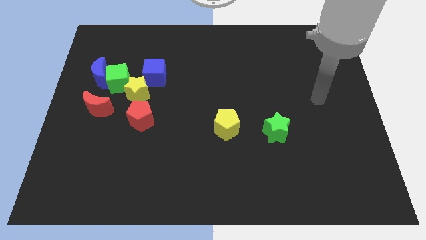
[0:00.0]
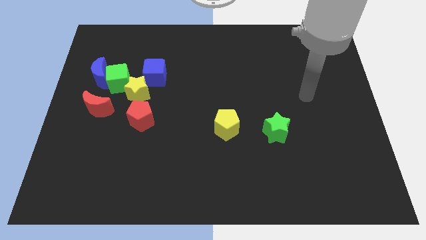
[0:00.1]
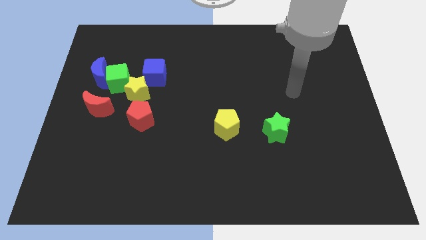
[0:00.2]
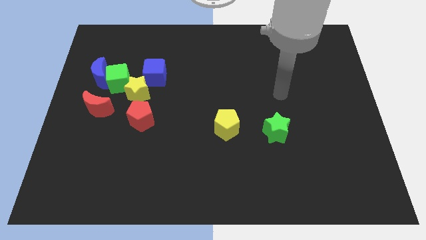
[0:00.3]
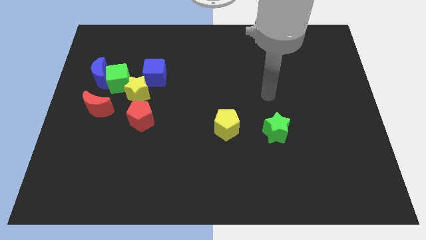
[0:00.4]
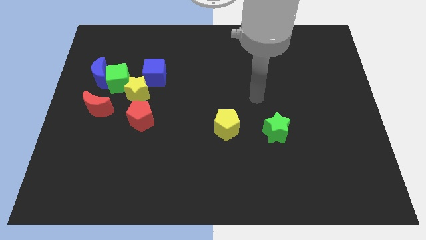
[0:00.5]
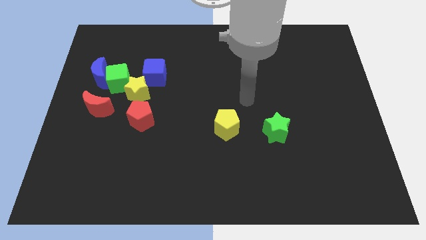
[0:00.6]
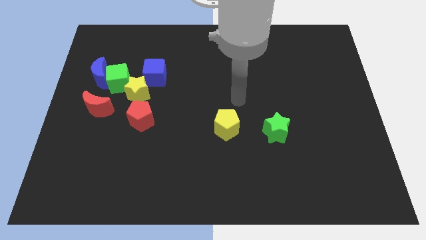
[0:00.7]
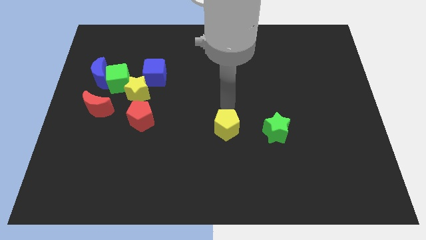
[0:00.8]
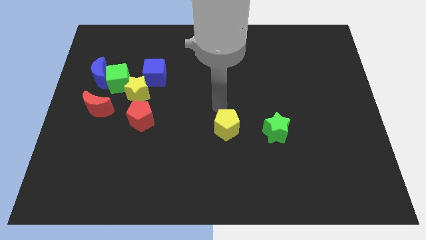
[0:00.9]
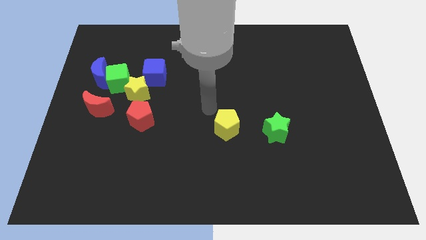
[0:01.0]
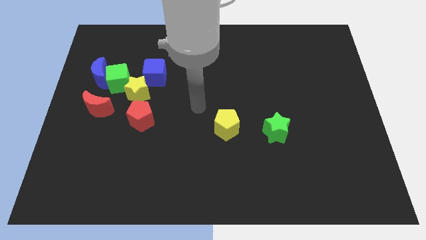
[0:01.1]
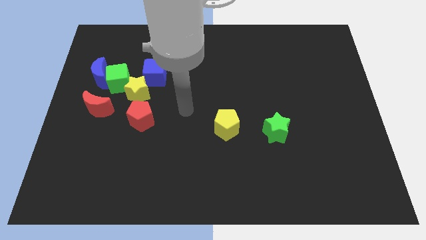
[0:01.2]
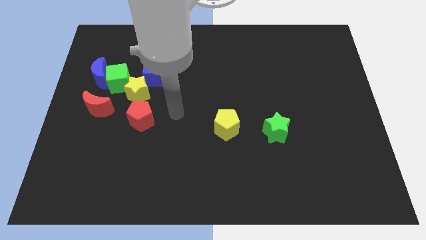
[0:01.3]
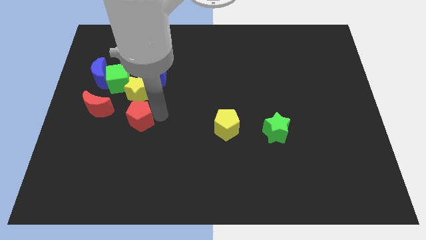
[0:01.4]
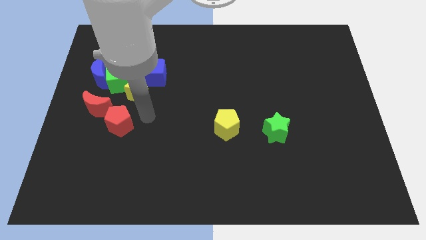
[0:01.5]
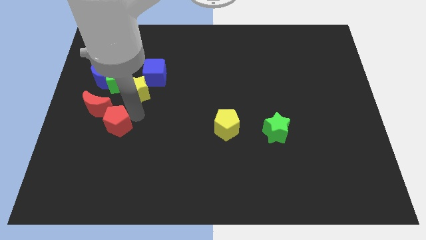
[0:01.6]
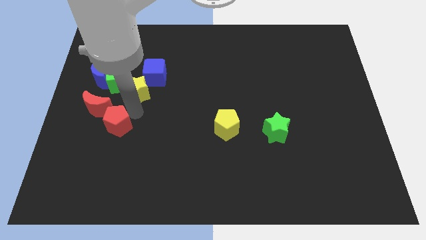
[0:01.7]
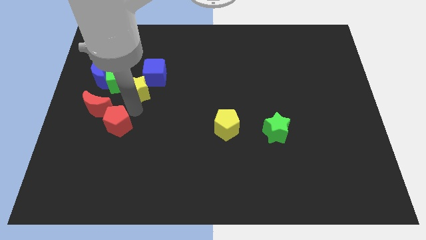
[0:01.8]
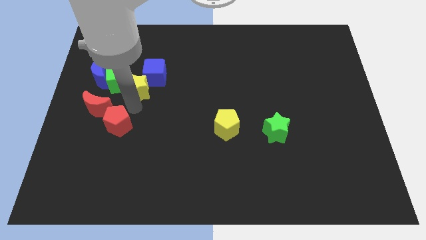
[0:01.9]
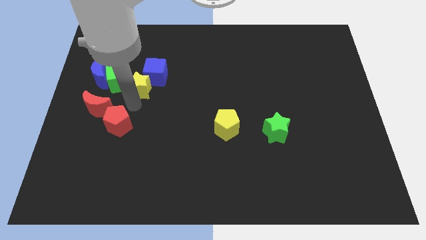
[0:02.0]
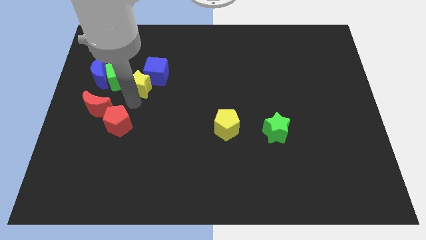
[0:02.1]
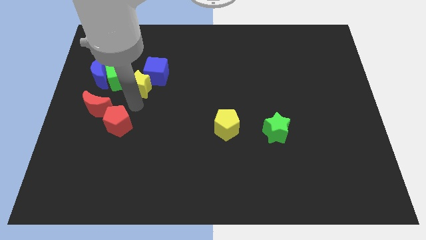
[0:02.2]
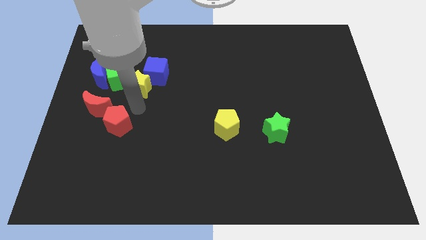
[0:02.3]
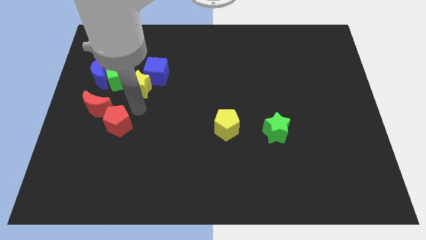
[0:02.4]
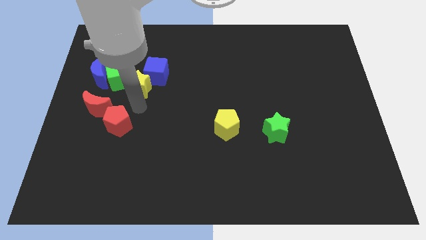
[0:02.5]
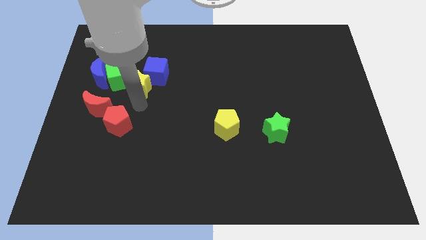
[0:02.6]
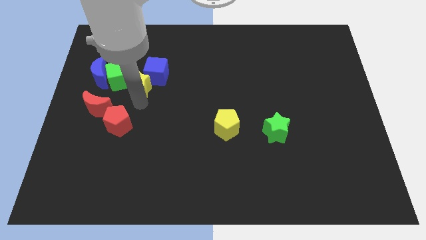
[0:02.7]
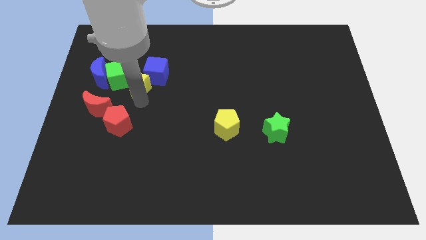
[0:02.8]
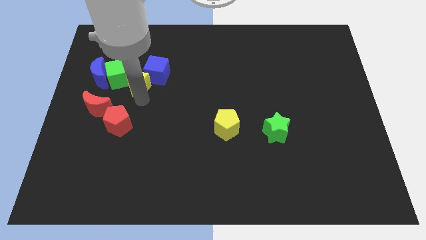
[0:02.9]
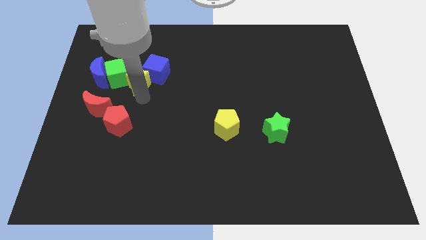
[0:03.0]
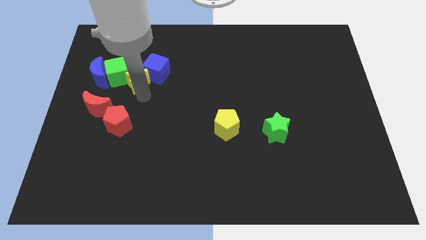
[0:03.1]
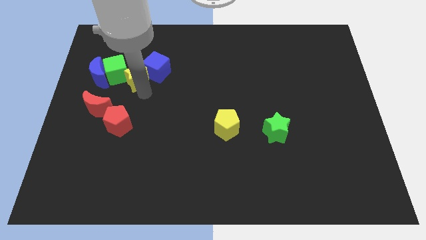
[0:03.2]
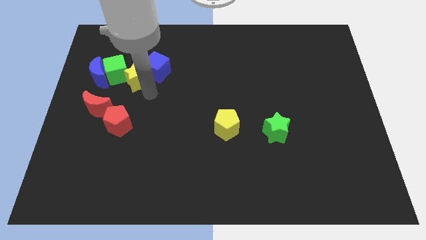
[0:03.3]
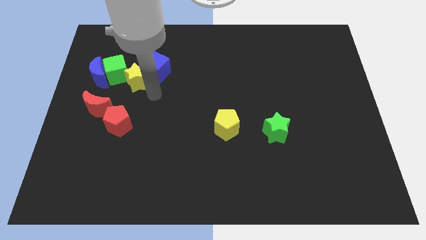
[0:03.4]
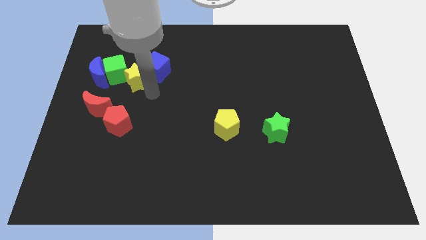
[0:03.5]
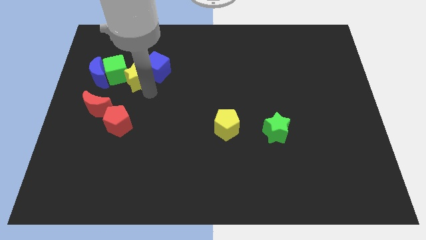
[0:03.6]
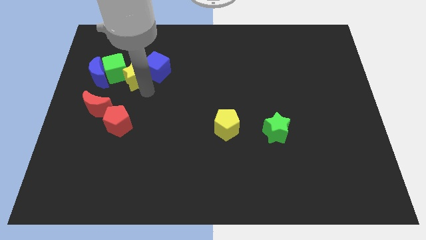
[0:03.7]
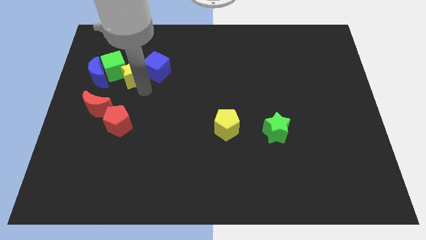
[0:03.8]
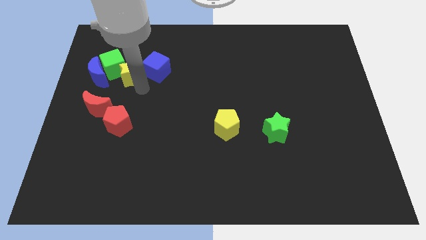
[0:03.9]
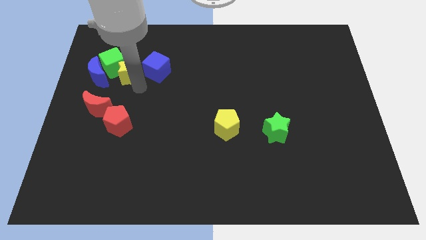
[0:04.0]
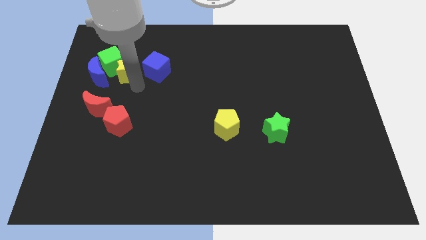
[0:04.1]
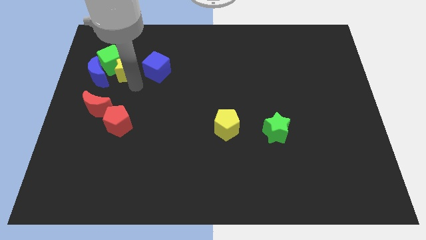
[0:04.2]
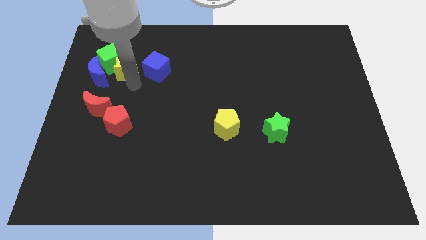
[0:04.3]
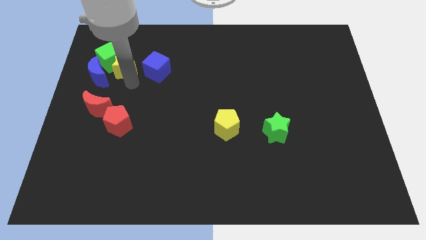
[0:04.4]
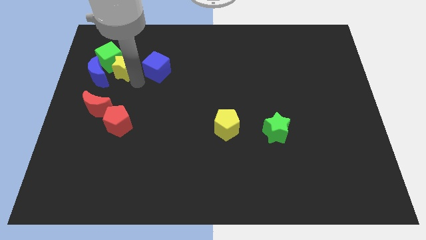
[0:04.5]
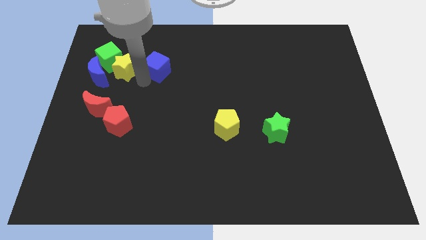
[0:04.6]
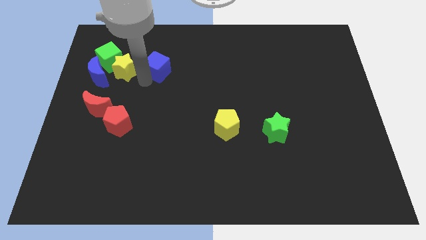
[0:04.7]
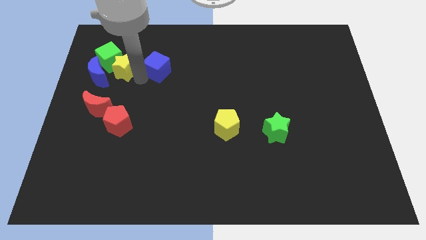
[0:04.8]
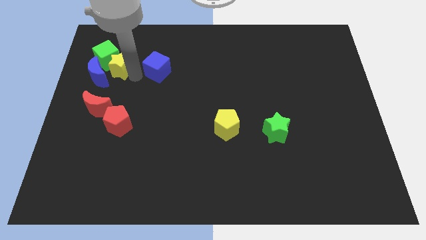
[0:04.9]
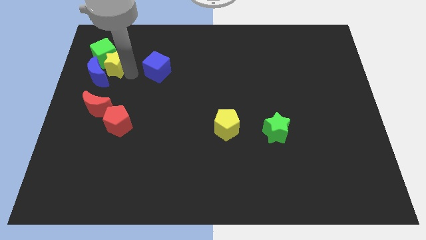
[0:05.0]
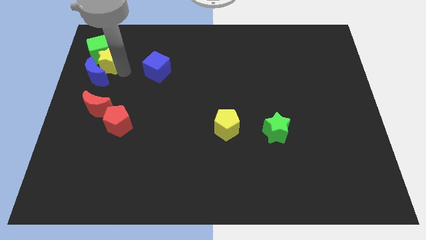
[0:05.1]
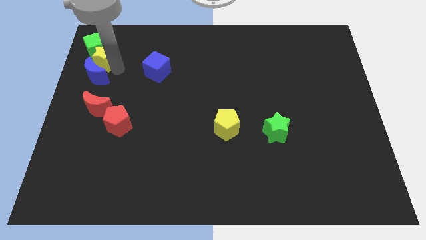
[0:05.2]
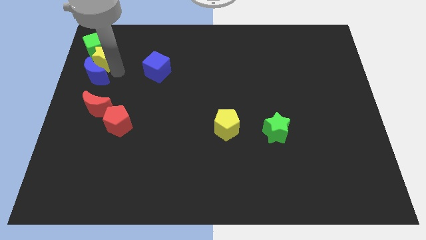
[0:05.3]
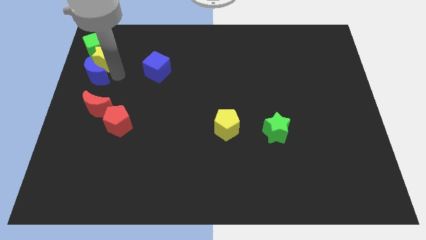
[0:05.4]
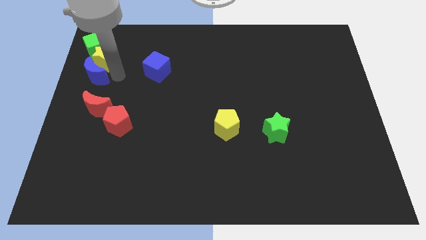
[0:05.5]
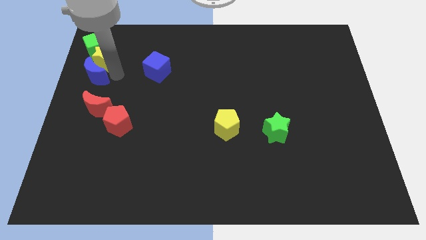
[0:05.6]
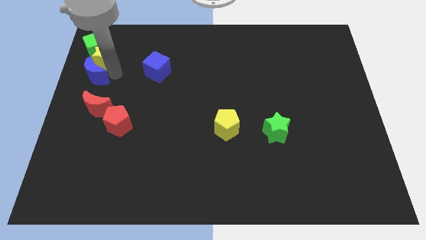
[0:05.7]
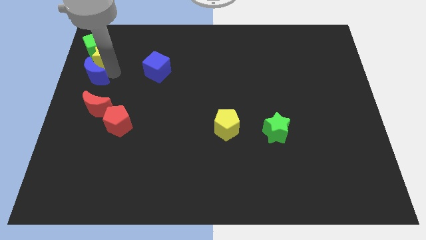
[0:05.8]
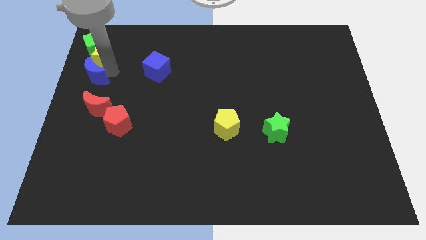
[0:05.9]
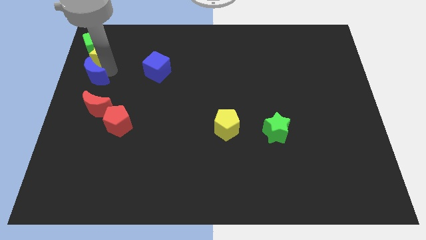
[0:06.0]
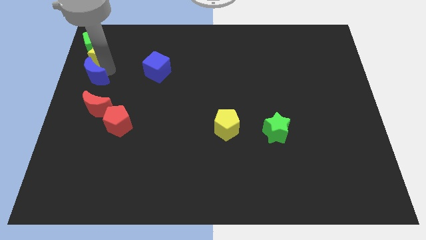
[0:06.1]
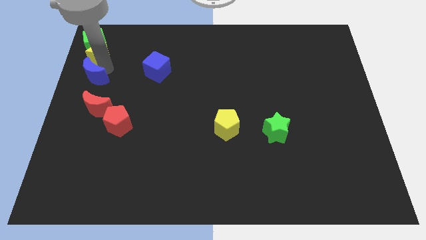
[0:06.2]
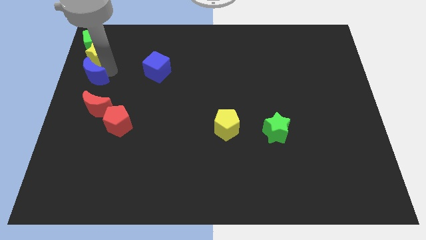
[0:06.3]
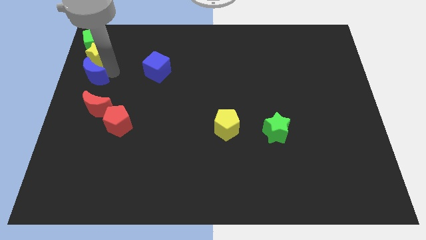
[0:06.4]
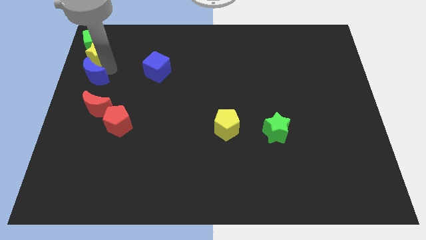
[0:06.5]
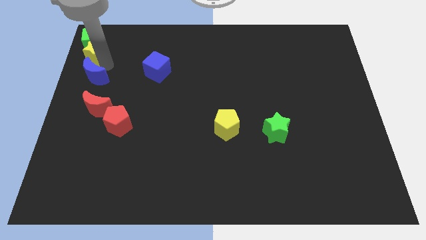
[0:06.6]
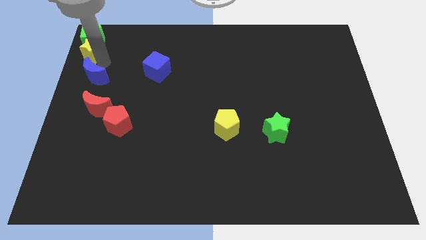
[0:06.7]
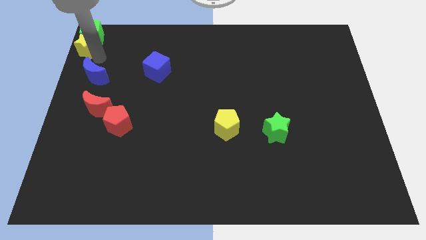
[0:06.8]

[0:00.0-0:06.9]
move the yellow star to the upper left corner

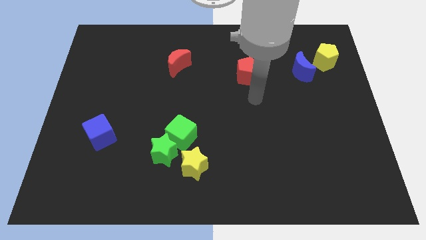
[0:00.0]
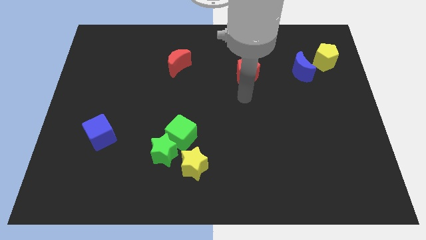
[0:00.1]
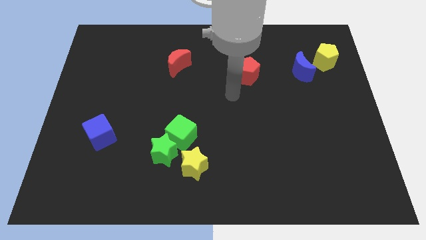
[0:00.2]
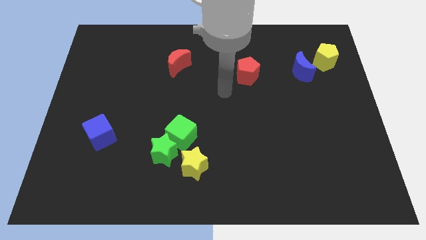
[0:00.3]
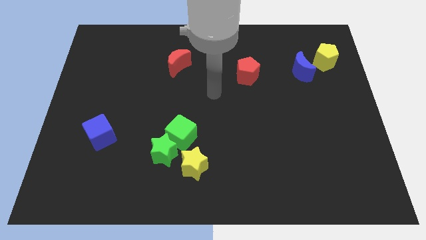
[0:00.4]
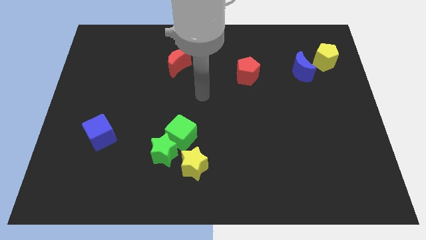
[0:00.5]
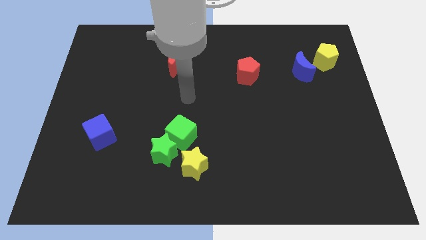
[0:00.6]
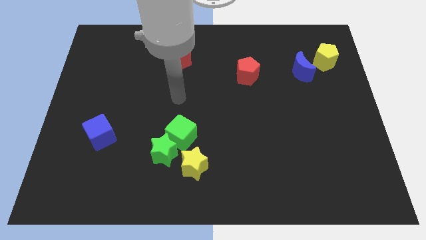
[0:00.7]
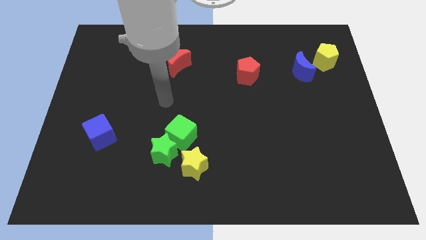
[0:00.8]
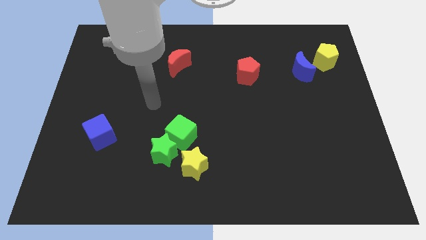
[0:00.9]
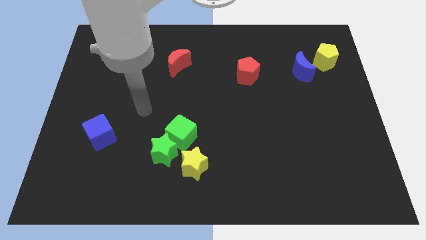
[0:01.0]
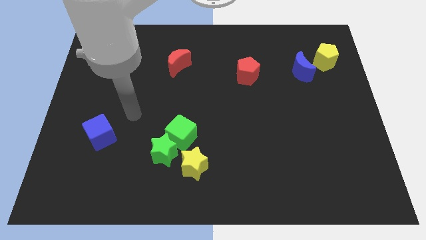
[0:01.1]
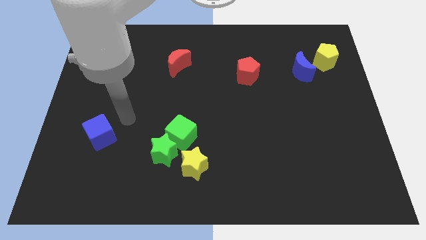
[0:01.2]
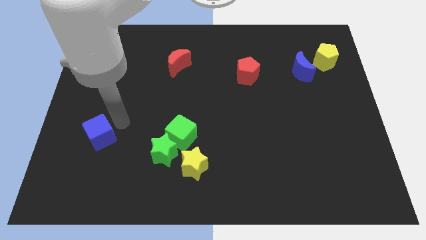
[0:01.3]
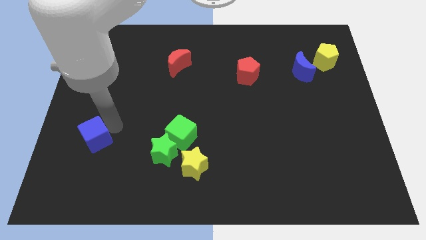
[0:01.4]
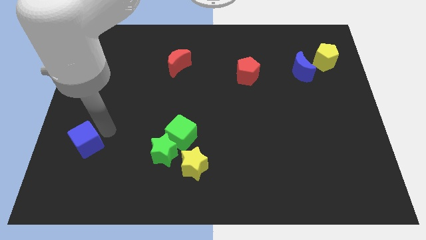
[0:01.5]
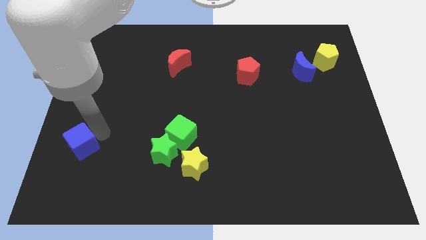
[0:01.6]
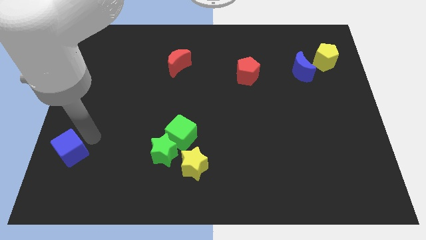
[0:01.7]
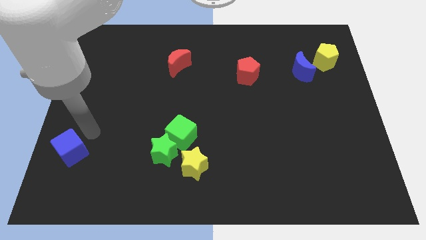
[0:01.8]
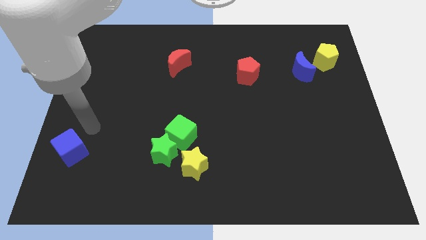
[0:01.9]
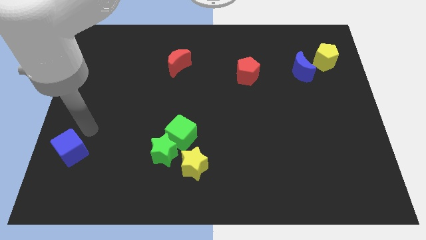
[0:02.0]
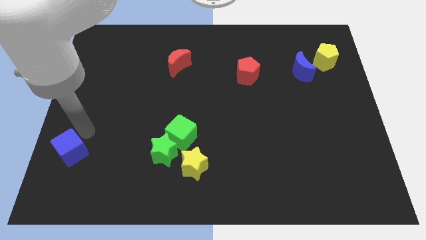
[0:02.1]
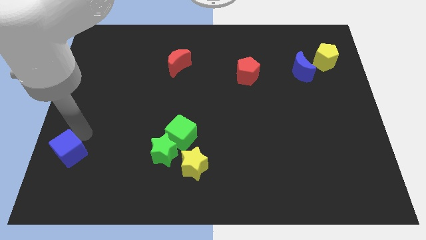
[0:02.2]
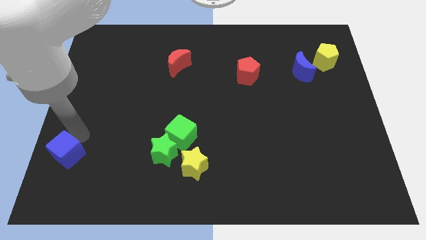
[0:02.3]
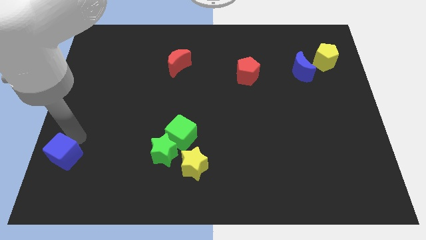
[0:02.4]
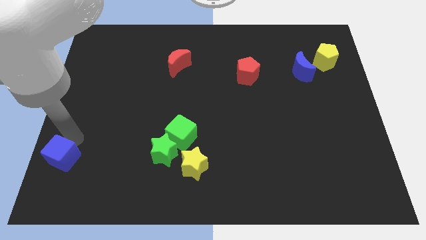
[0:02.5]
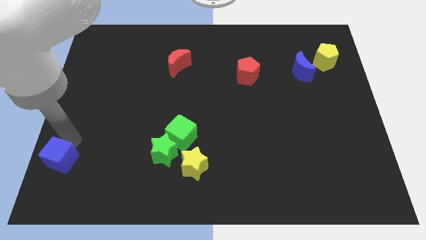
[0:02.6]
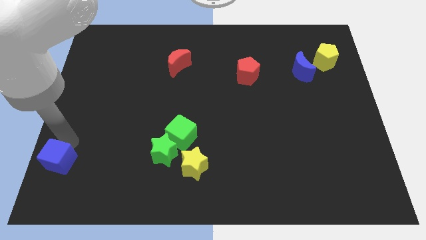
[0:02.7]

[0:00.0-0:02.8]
slide the blue cube to the bottom left corner
